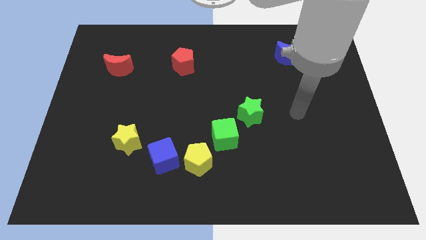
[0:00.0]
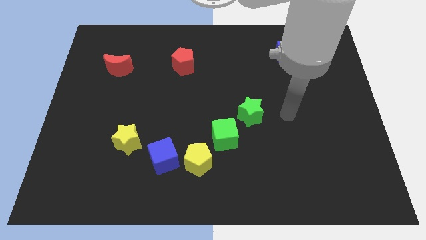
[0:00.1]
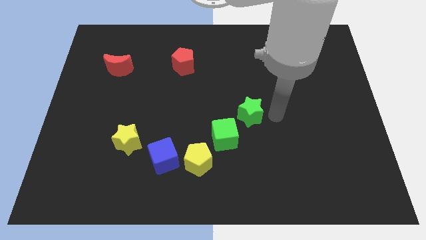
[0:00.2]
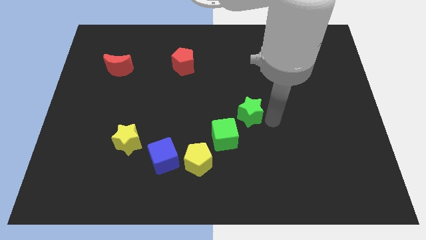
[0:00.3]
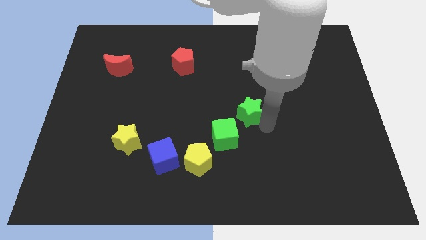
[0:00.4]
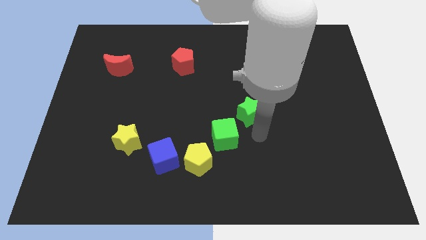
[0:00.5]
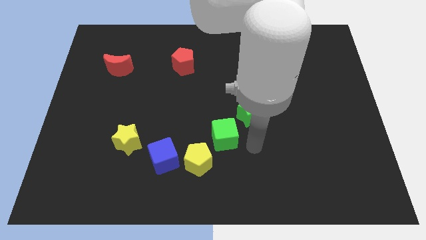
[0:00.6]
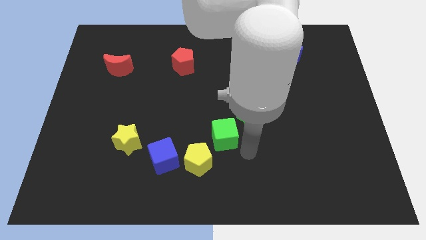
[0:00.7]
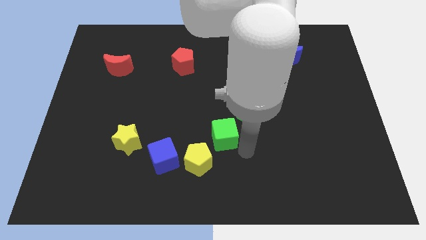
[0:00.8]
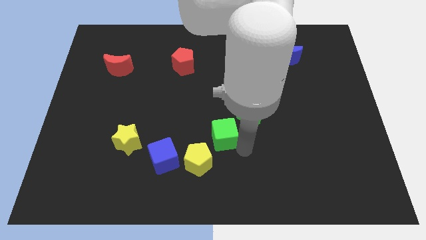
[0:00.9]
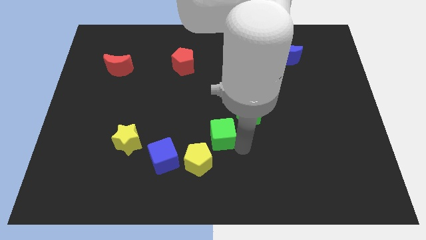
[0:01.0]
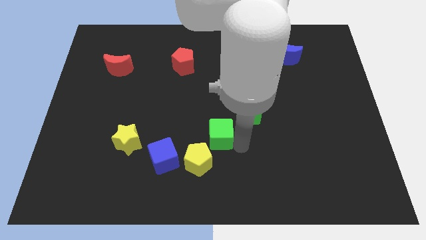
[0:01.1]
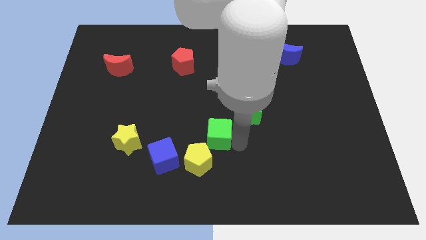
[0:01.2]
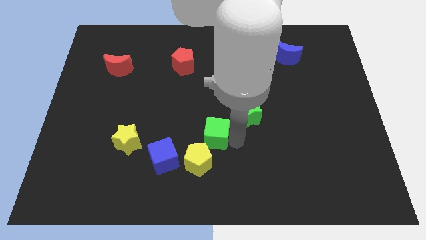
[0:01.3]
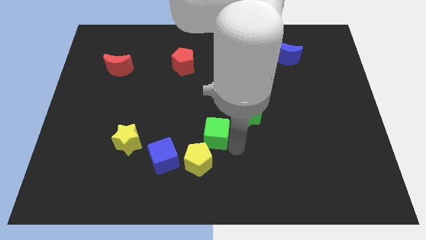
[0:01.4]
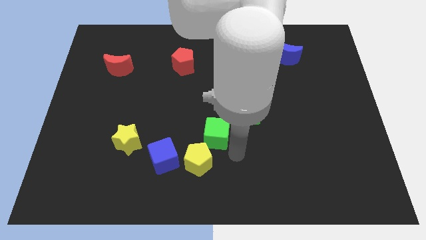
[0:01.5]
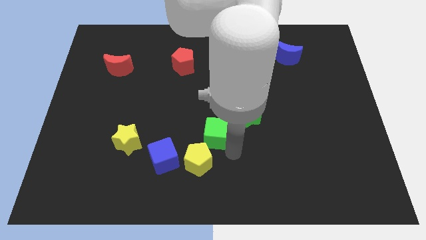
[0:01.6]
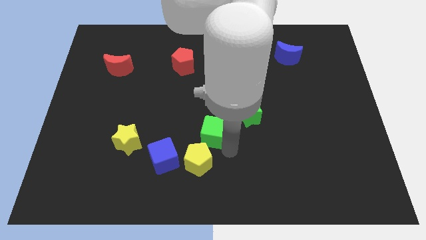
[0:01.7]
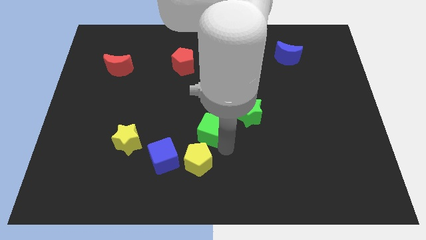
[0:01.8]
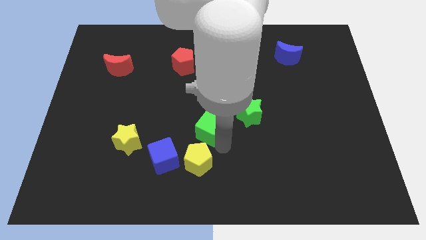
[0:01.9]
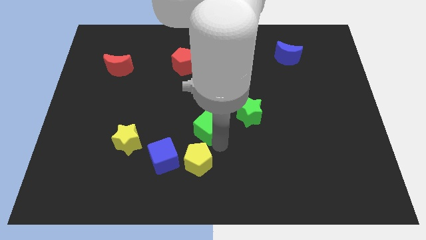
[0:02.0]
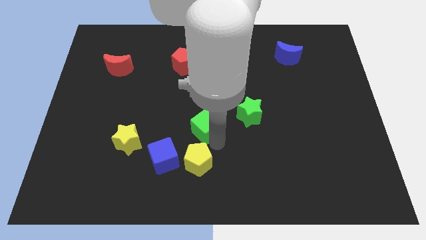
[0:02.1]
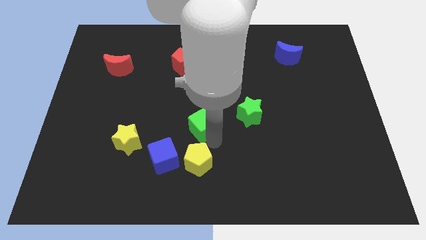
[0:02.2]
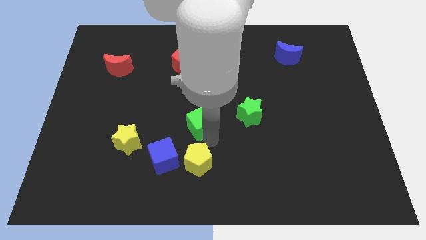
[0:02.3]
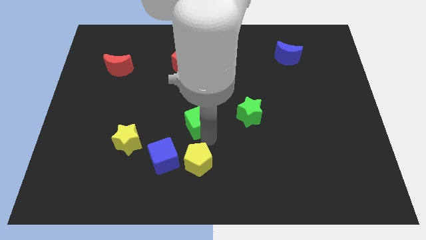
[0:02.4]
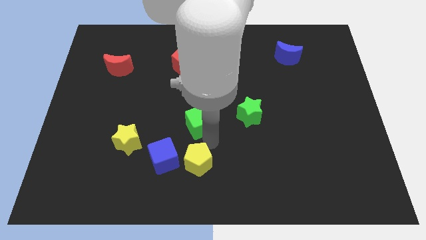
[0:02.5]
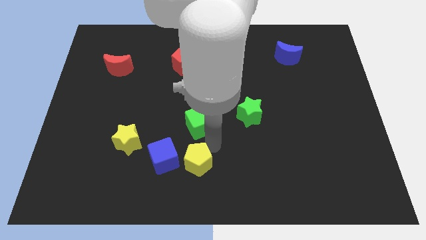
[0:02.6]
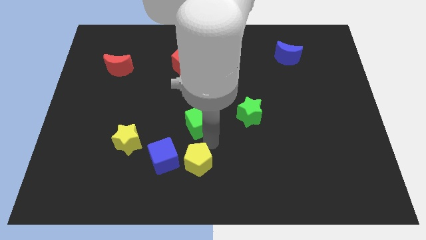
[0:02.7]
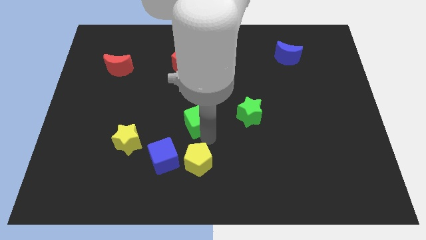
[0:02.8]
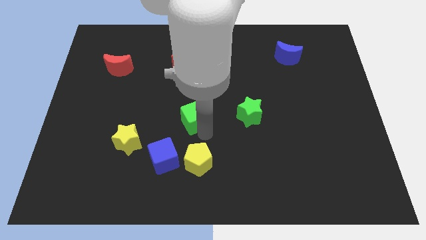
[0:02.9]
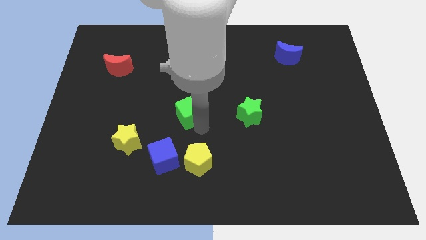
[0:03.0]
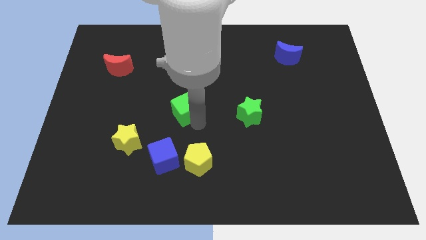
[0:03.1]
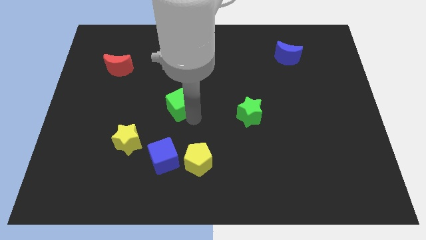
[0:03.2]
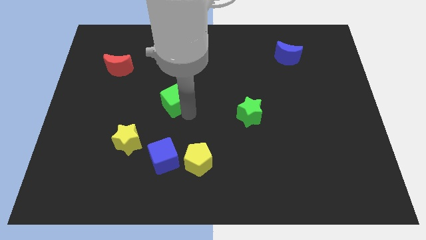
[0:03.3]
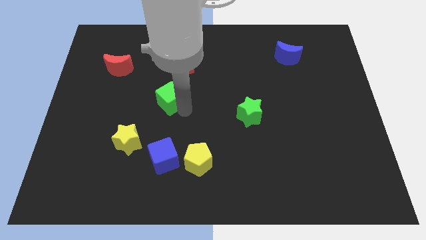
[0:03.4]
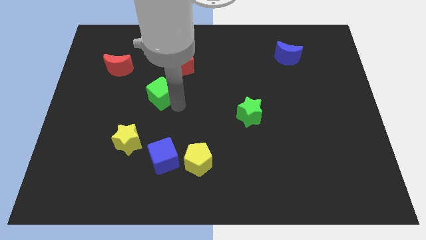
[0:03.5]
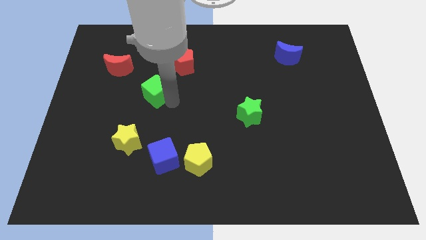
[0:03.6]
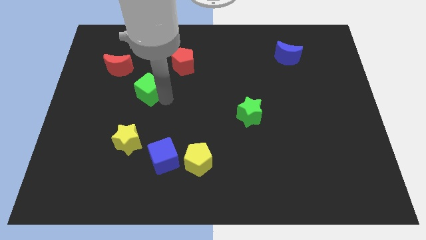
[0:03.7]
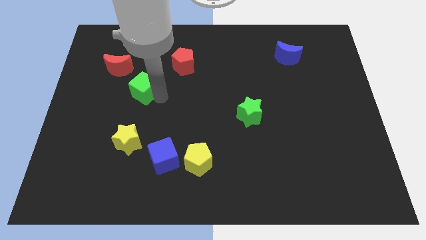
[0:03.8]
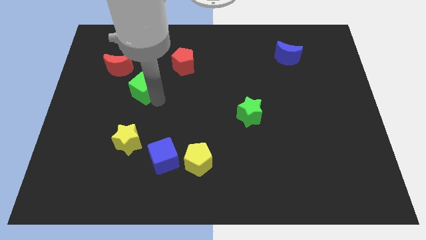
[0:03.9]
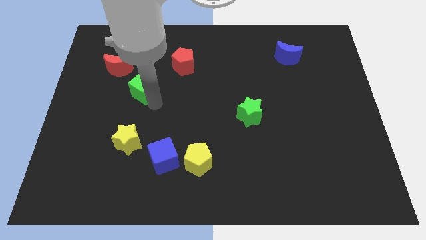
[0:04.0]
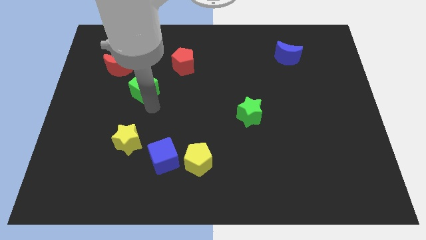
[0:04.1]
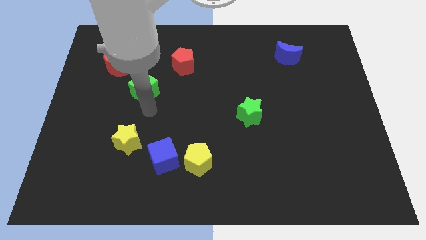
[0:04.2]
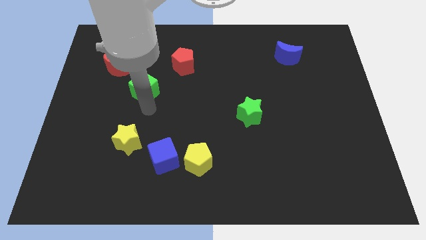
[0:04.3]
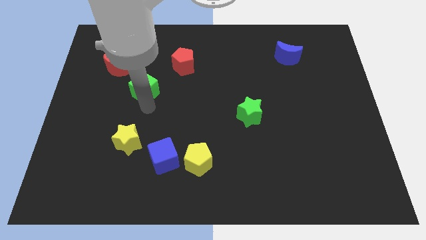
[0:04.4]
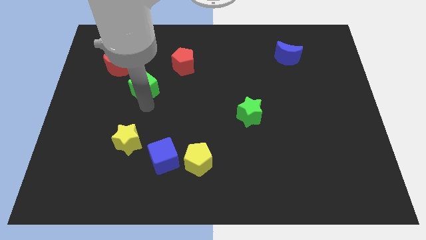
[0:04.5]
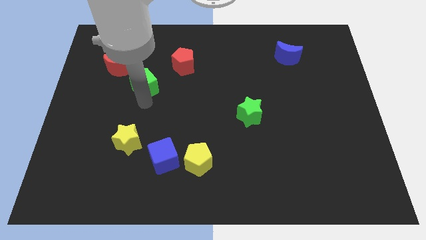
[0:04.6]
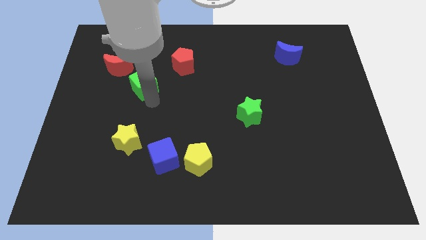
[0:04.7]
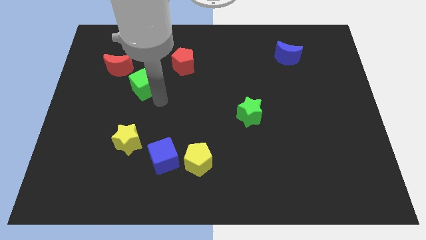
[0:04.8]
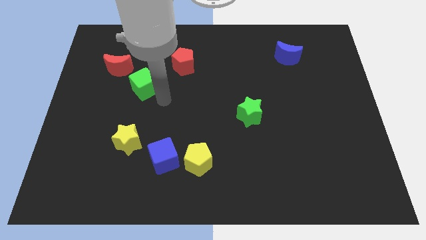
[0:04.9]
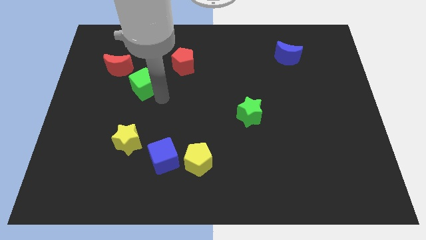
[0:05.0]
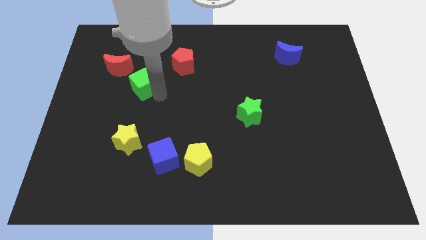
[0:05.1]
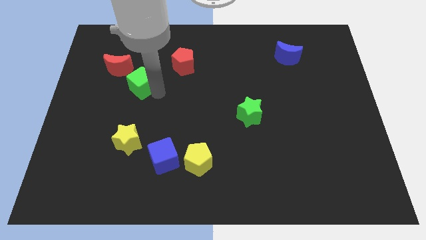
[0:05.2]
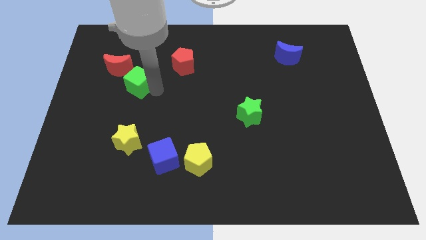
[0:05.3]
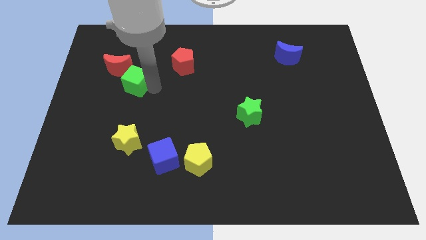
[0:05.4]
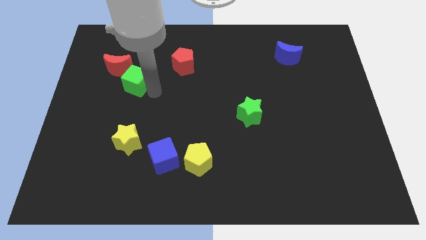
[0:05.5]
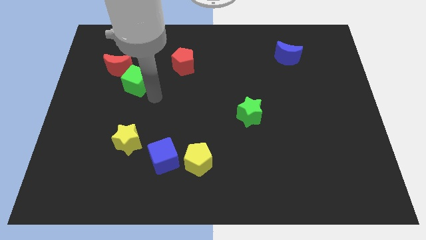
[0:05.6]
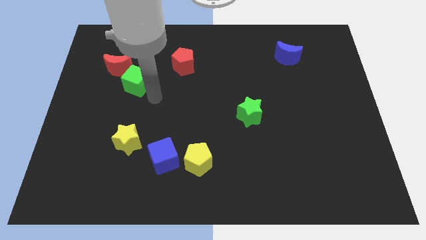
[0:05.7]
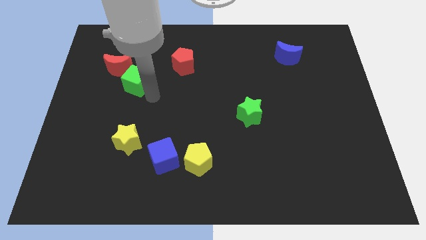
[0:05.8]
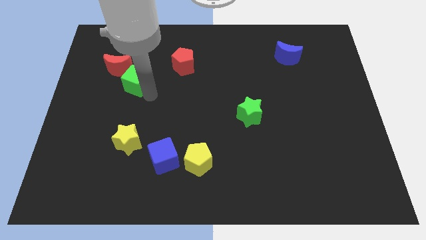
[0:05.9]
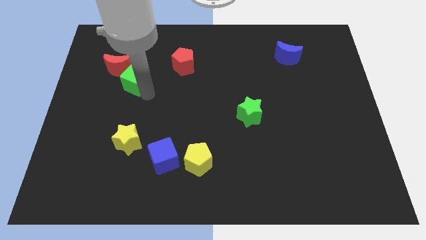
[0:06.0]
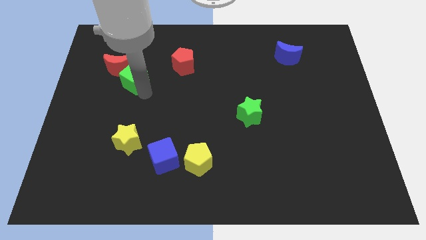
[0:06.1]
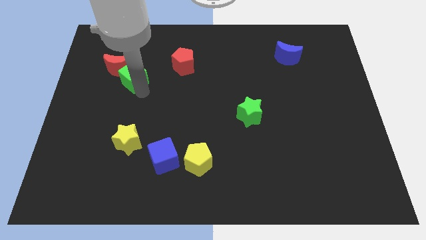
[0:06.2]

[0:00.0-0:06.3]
put the green cube next to the red moon
